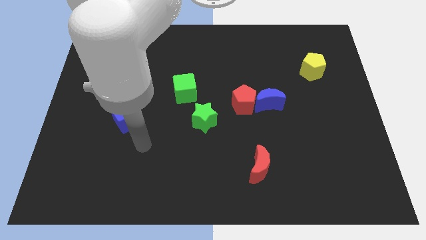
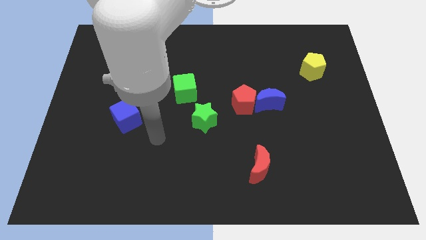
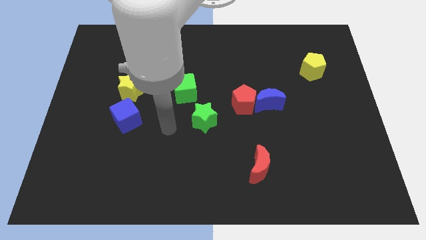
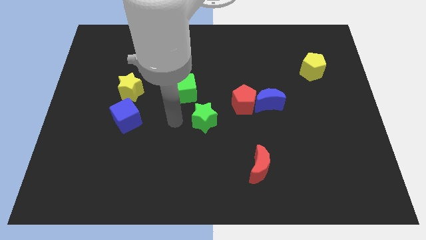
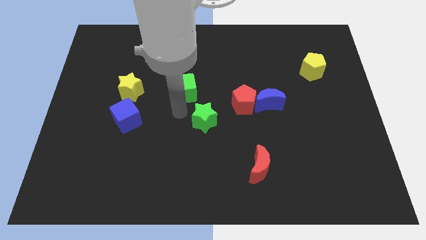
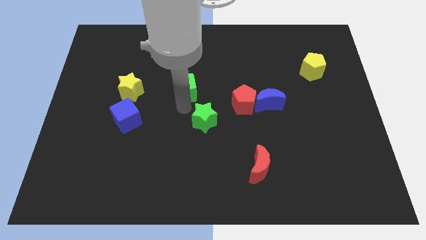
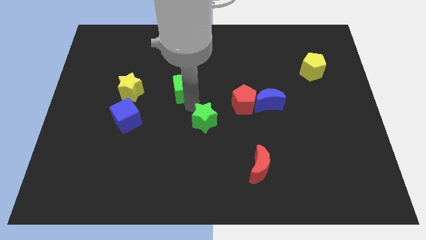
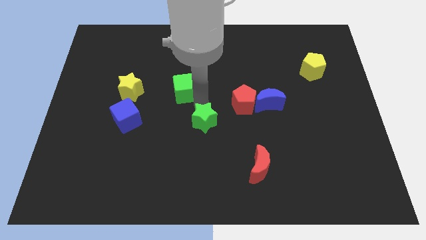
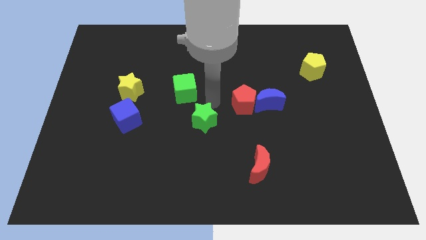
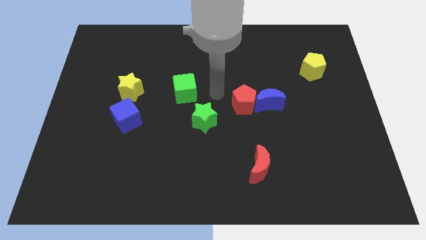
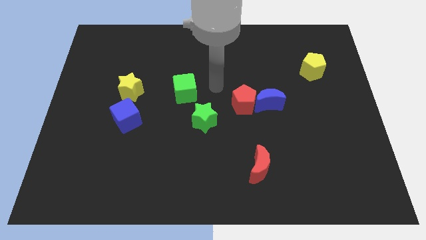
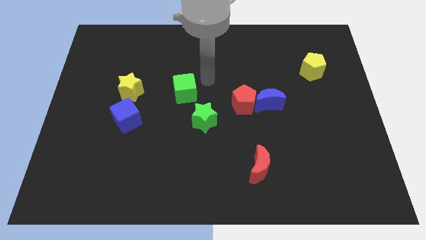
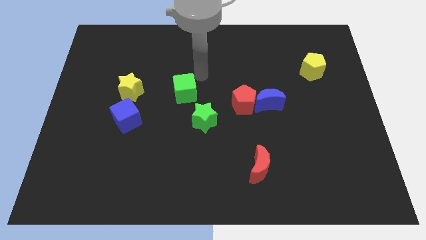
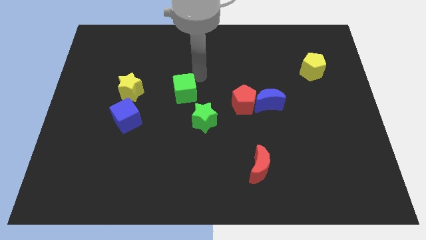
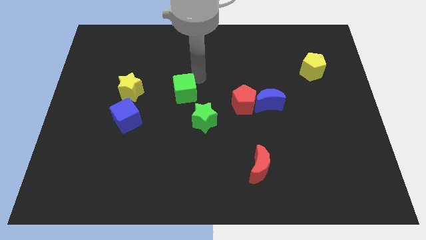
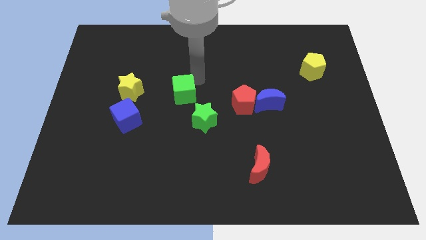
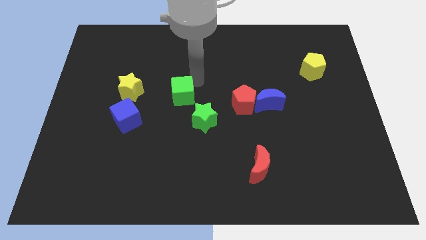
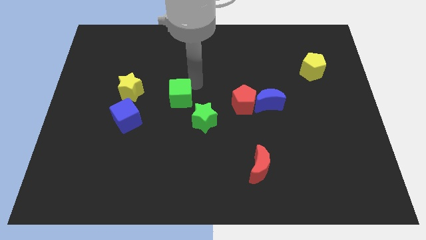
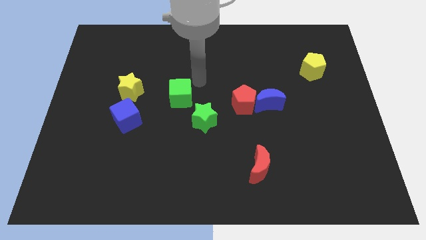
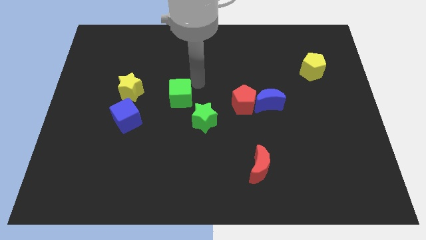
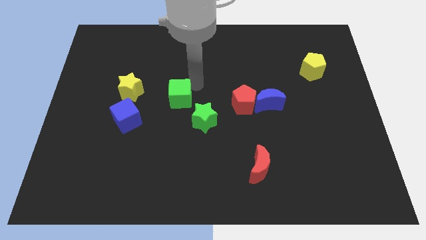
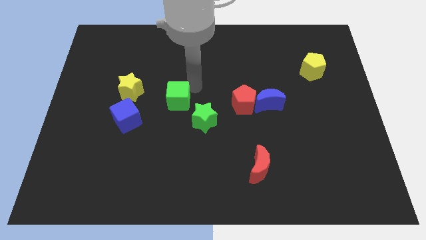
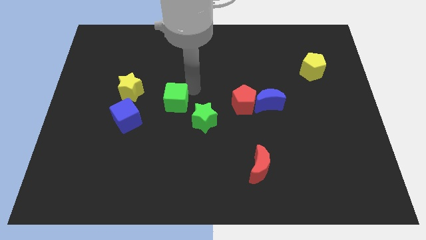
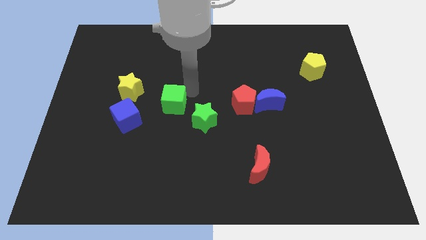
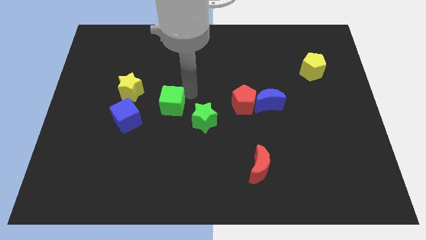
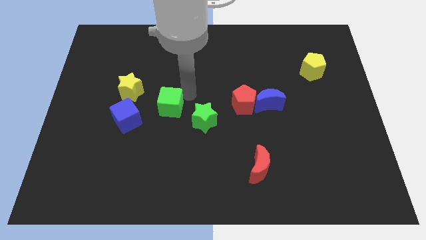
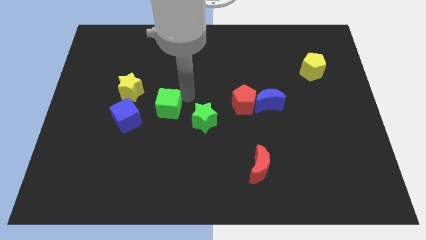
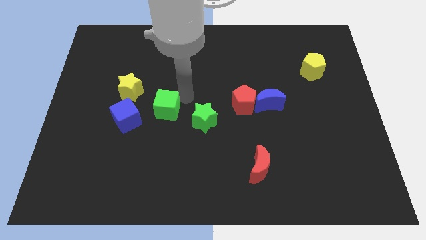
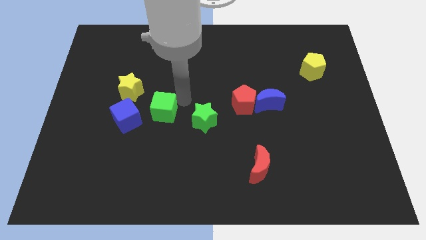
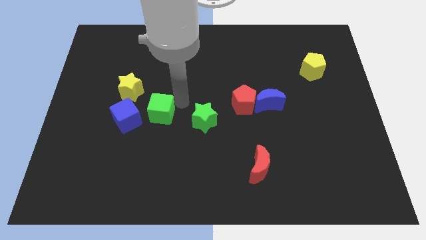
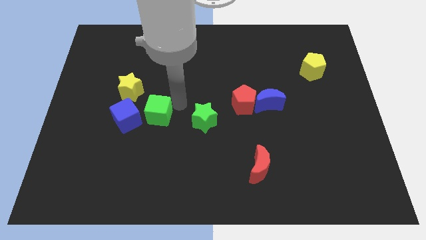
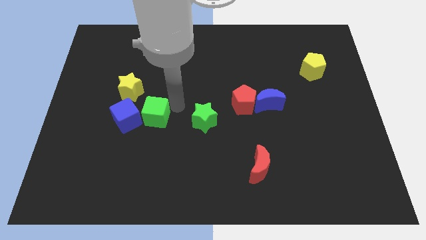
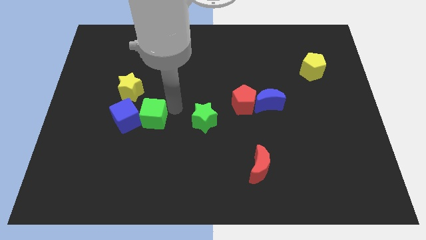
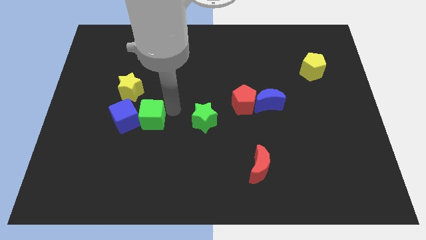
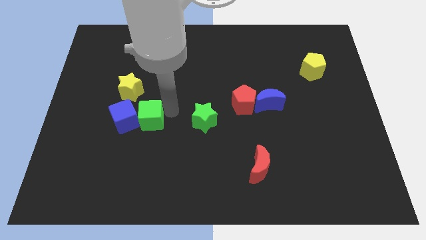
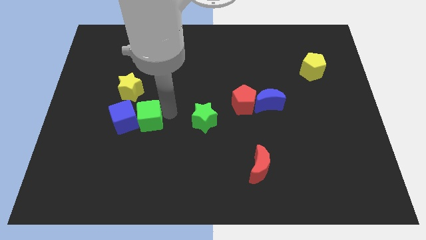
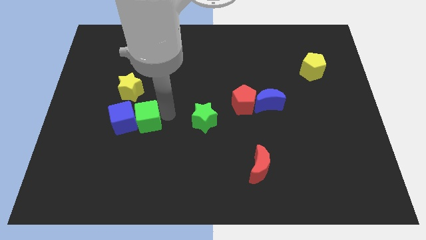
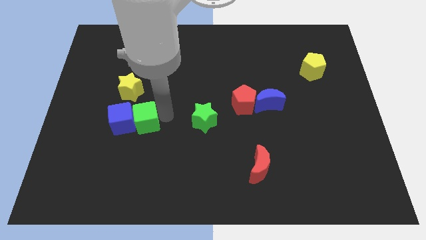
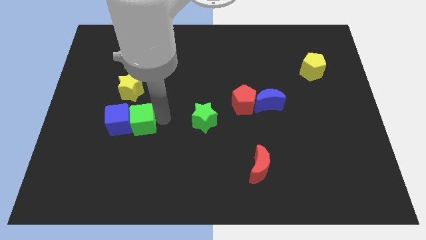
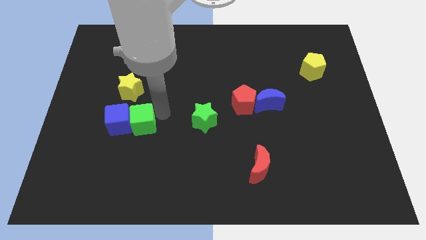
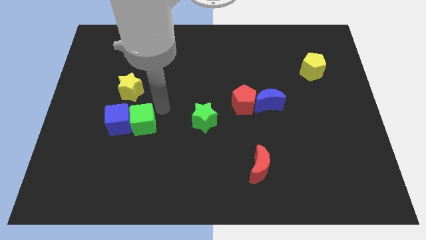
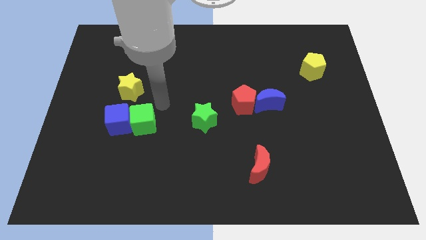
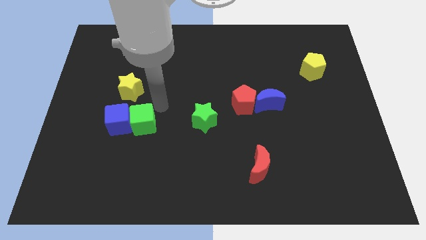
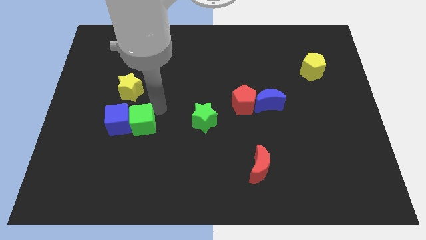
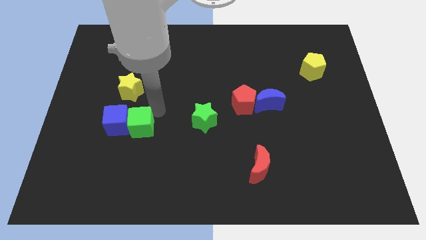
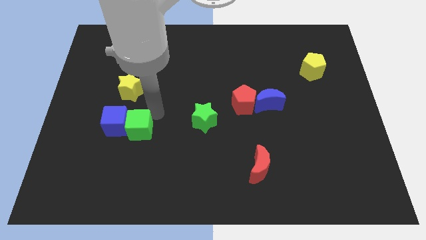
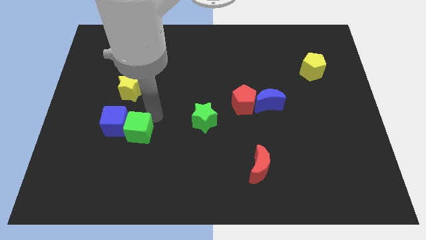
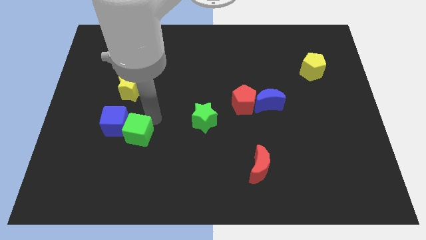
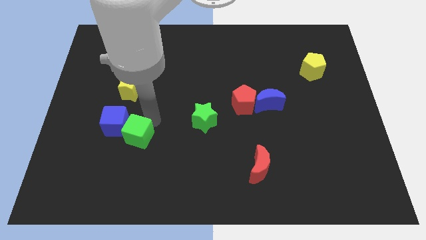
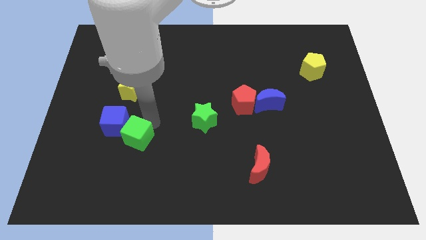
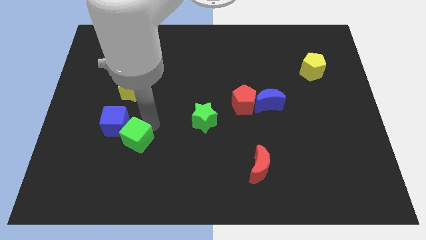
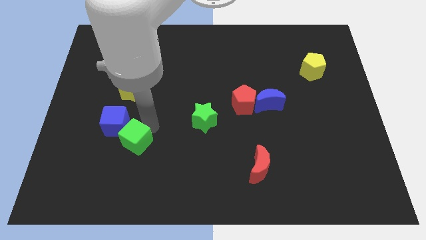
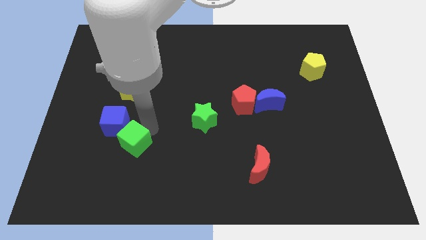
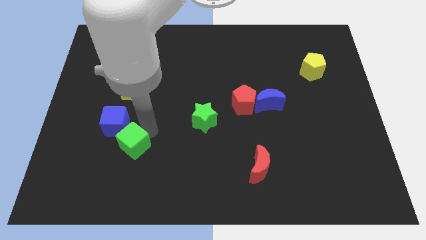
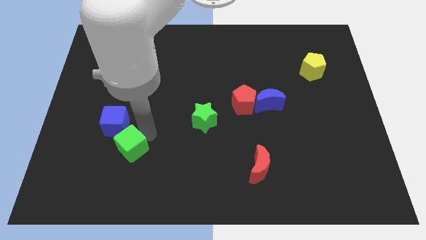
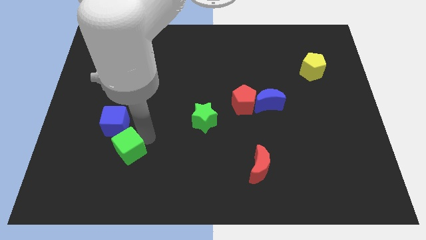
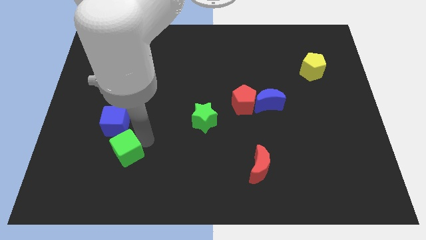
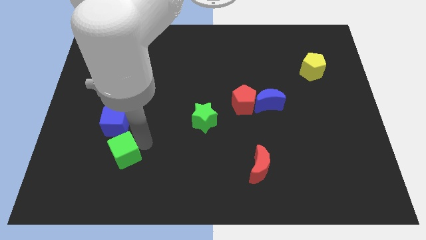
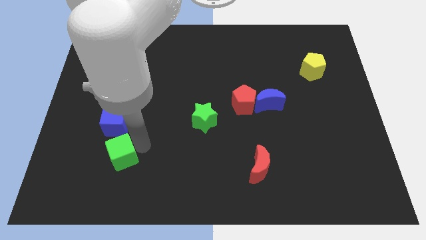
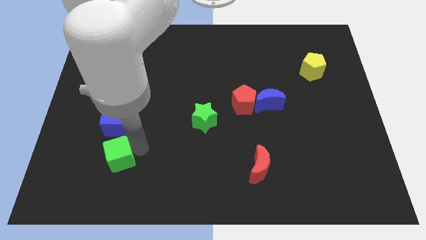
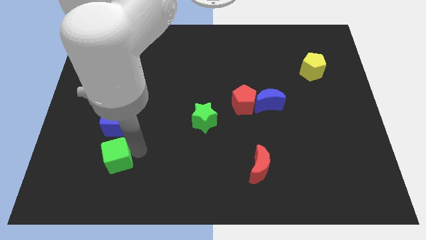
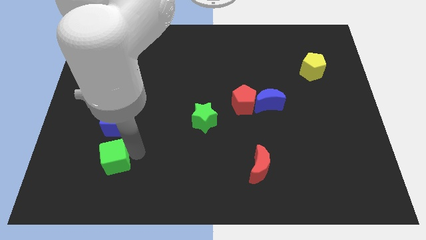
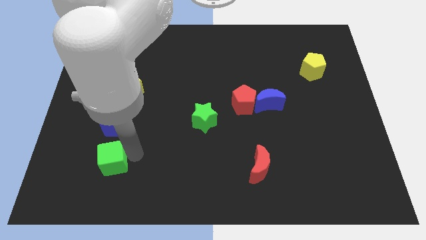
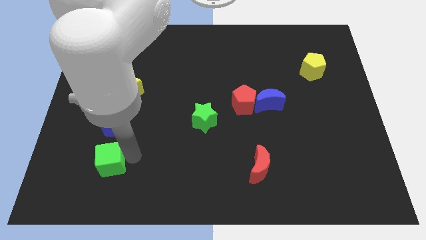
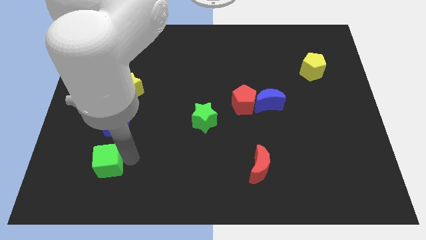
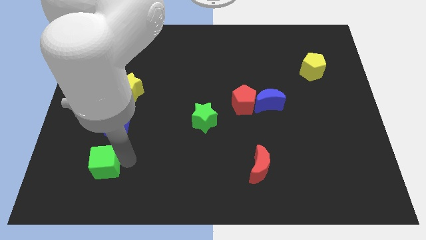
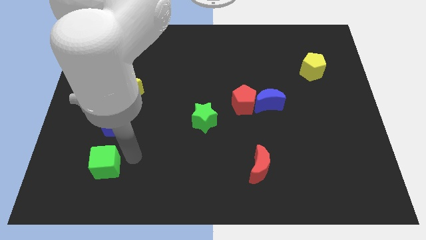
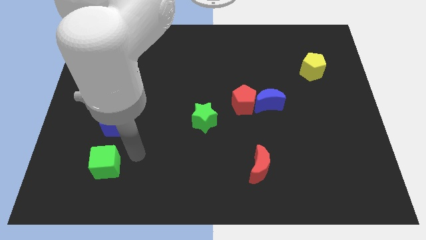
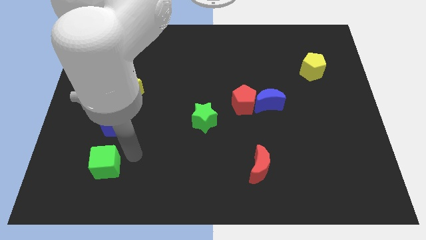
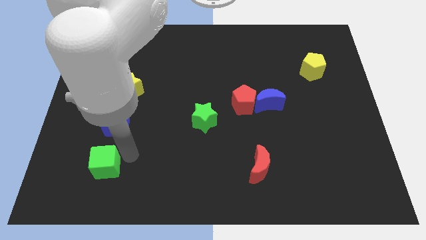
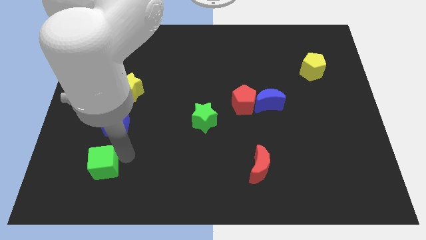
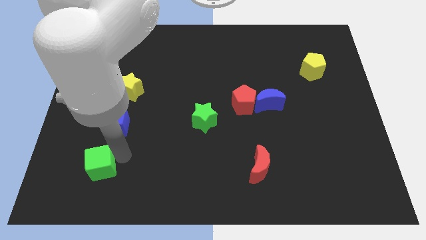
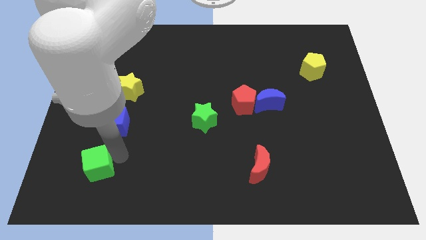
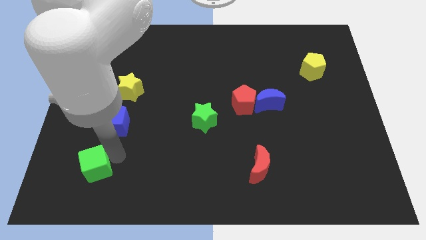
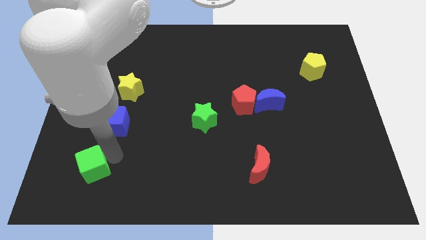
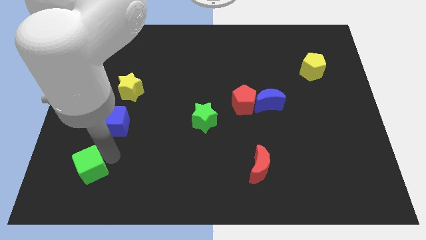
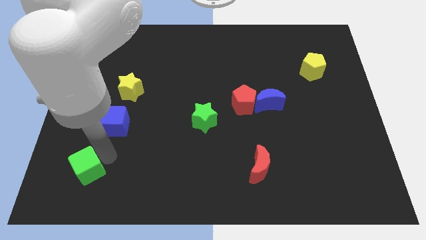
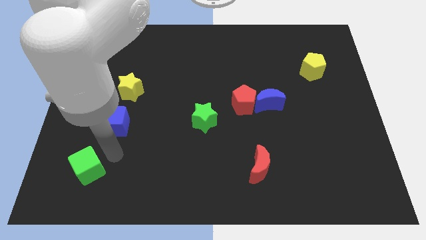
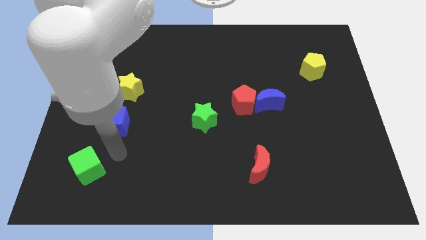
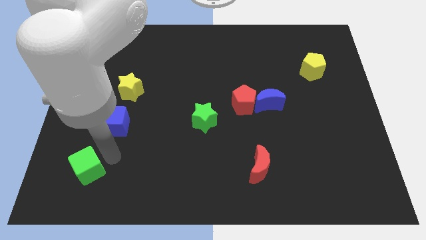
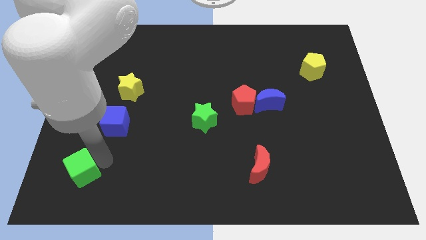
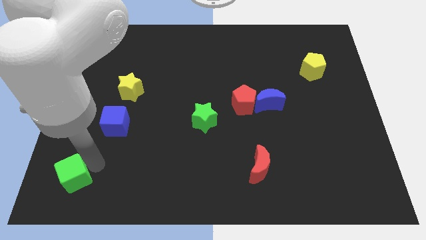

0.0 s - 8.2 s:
slide the green cube to the bottom left of the board
